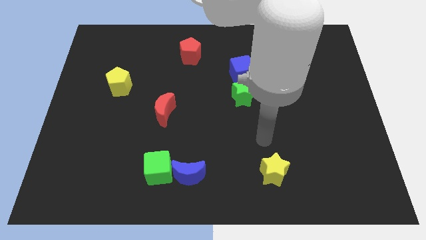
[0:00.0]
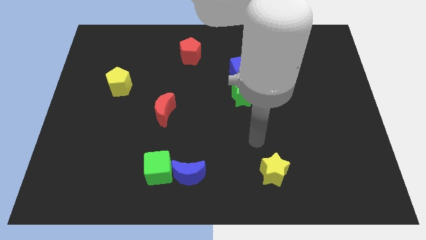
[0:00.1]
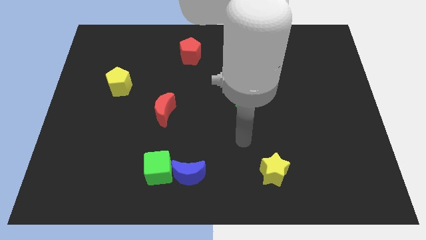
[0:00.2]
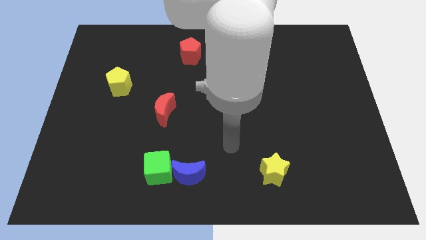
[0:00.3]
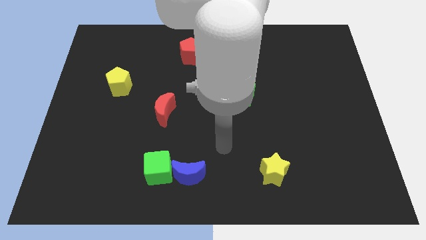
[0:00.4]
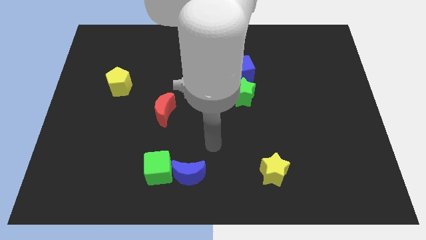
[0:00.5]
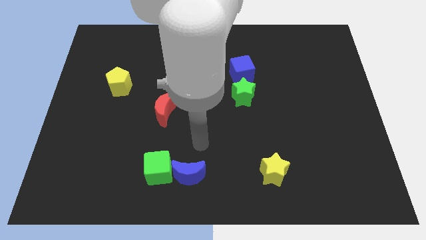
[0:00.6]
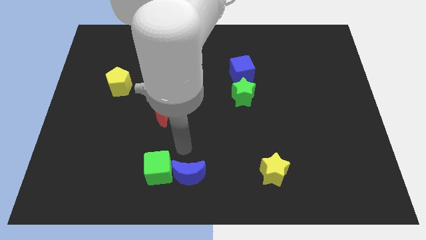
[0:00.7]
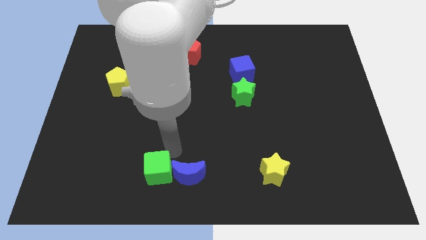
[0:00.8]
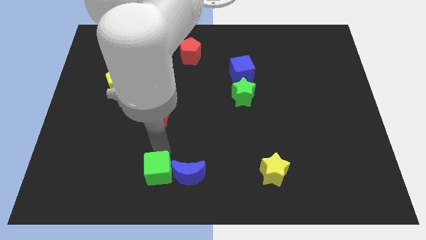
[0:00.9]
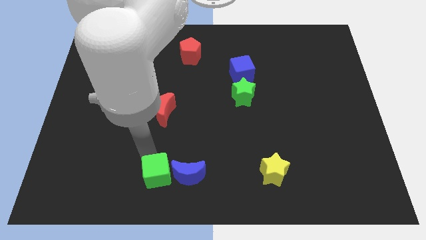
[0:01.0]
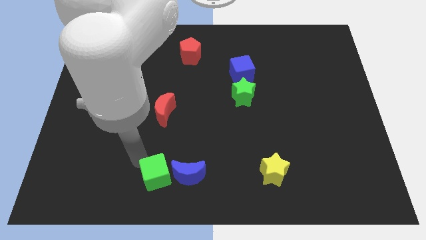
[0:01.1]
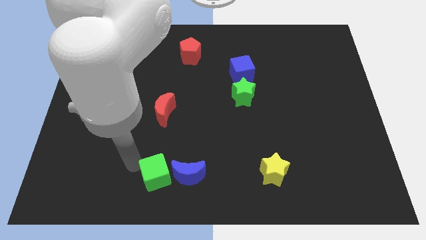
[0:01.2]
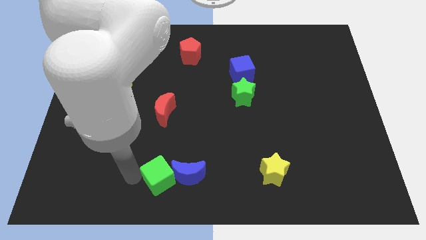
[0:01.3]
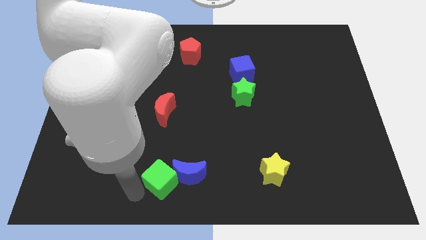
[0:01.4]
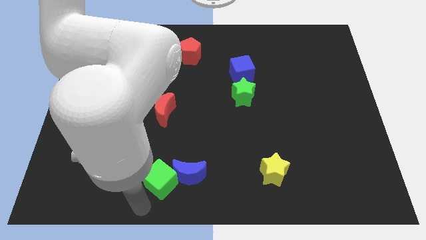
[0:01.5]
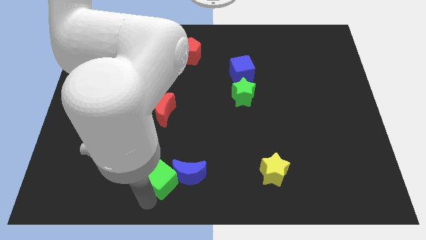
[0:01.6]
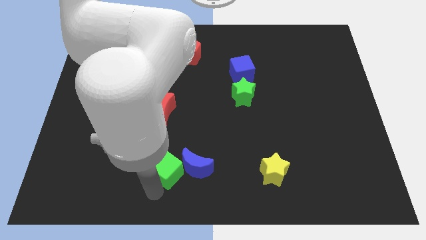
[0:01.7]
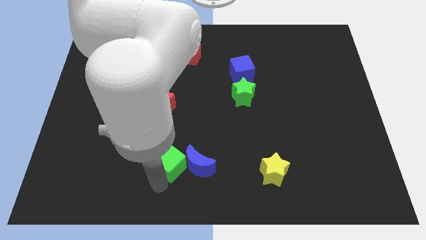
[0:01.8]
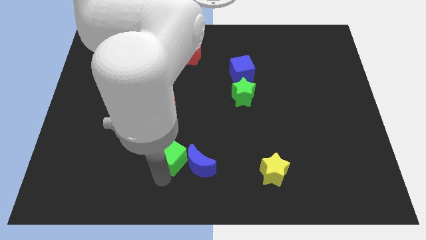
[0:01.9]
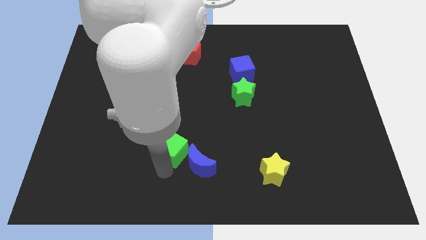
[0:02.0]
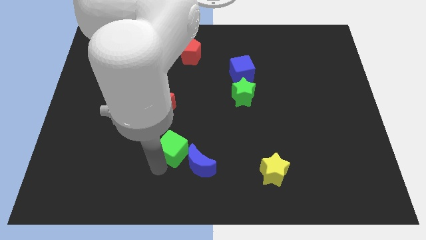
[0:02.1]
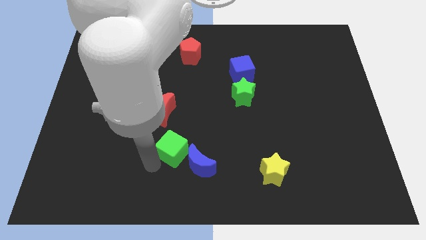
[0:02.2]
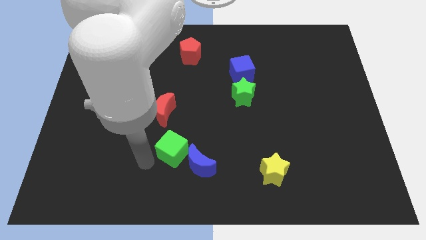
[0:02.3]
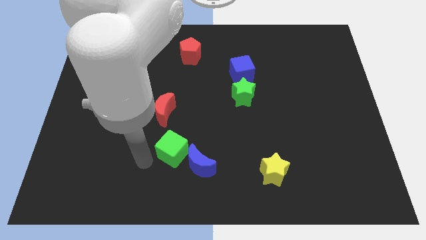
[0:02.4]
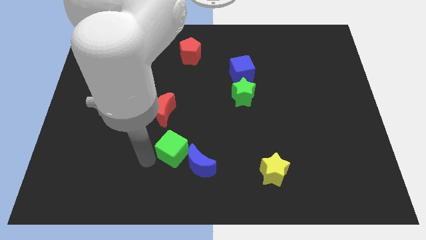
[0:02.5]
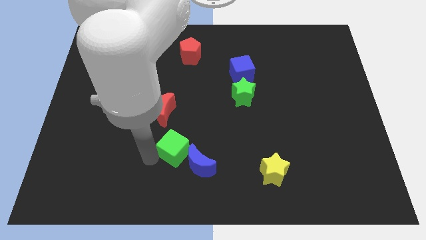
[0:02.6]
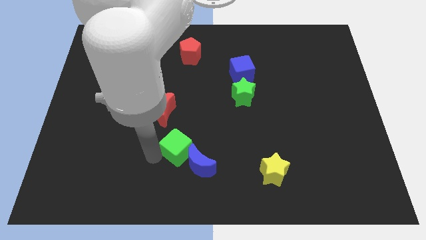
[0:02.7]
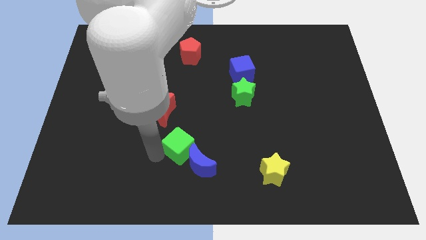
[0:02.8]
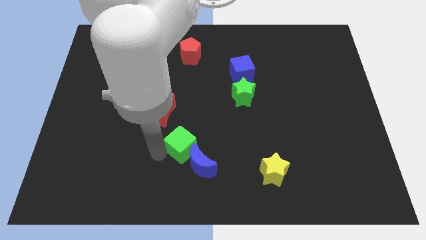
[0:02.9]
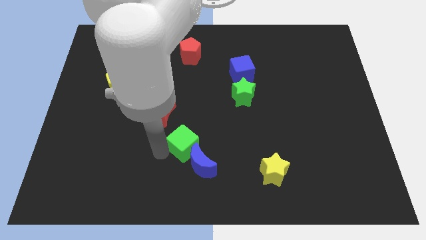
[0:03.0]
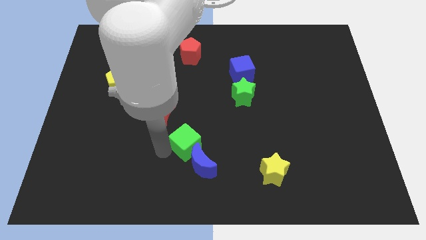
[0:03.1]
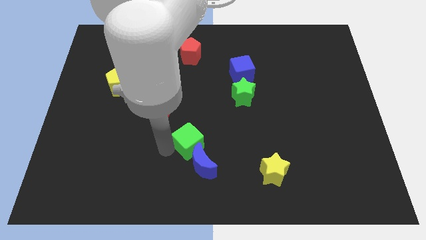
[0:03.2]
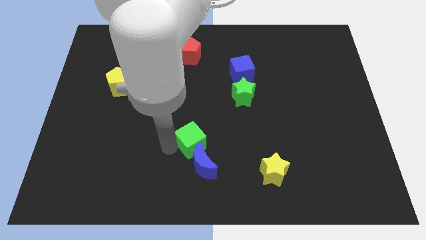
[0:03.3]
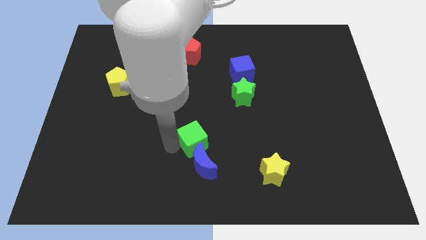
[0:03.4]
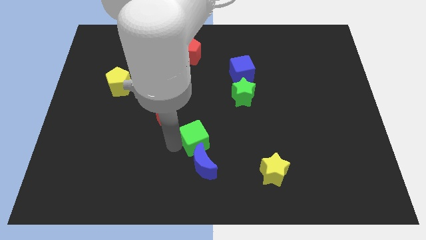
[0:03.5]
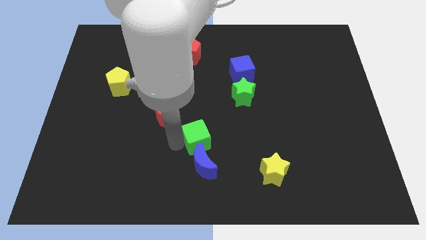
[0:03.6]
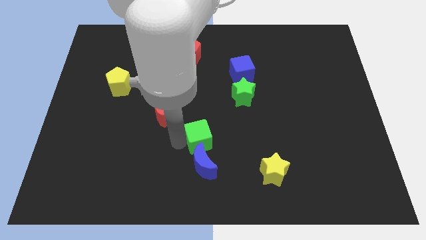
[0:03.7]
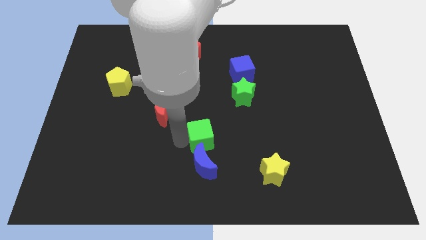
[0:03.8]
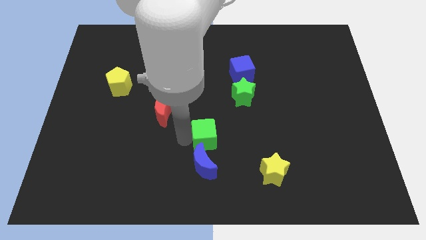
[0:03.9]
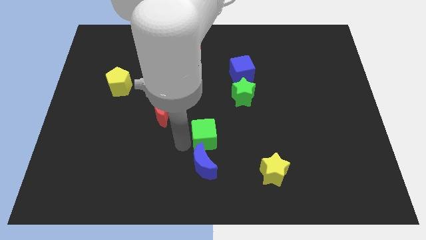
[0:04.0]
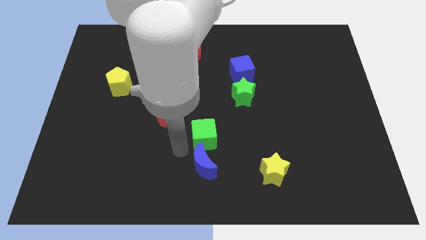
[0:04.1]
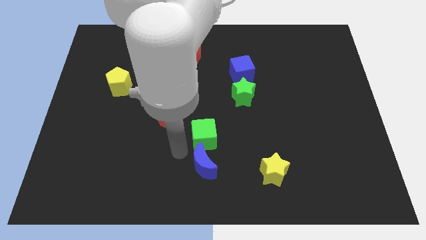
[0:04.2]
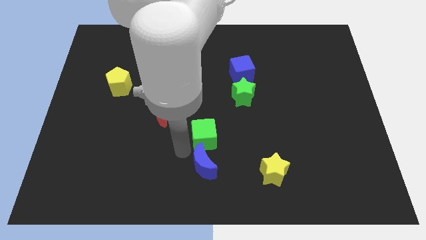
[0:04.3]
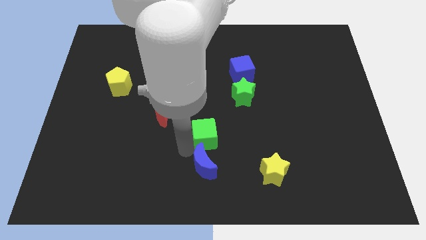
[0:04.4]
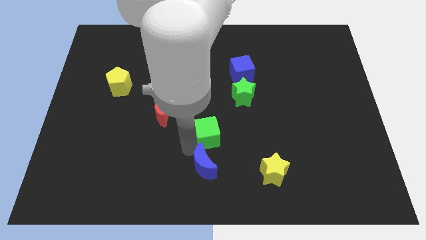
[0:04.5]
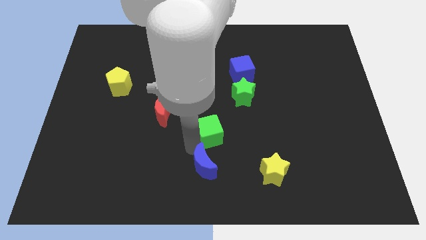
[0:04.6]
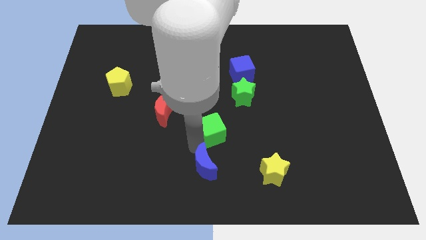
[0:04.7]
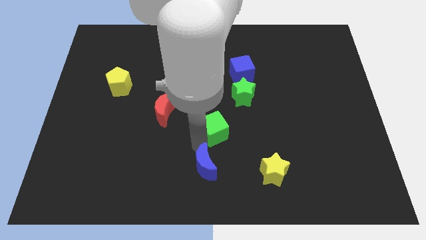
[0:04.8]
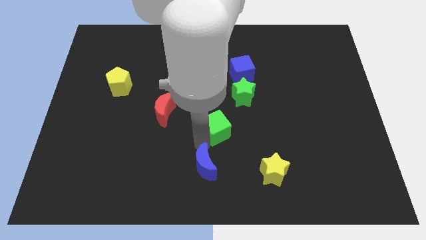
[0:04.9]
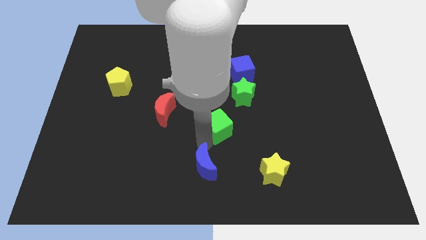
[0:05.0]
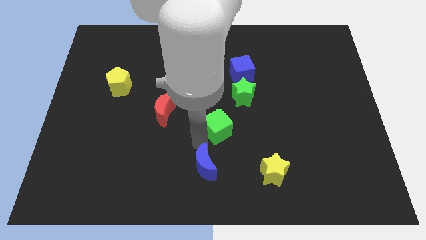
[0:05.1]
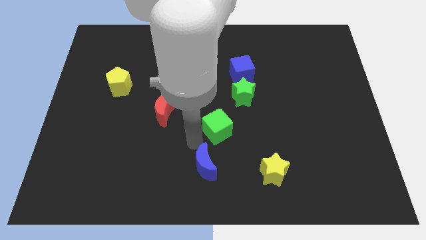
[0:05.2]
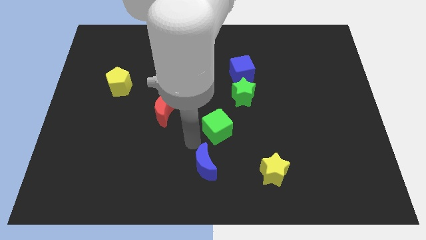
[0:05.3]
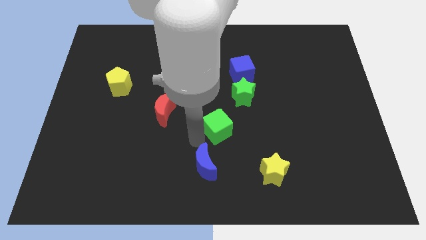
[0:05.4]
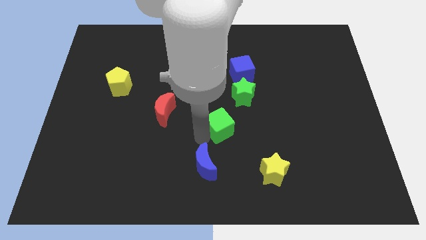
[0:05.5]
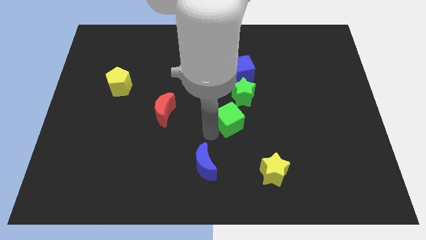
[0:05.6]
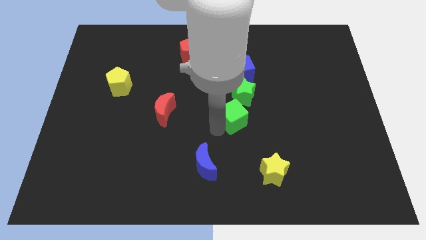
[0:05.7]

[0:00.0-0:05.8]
push the green cube upwards and right

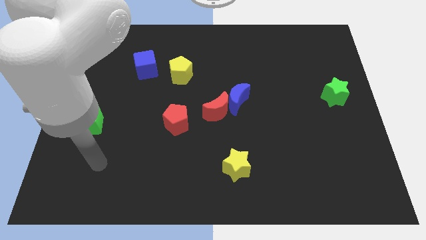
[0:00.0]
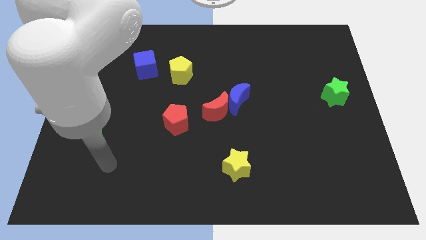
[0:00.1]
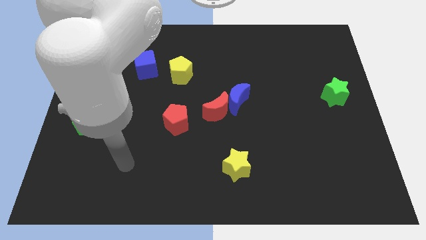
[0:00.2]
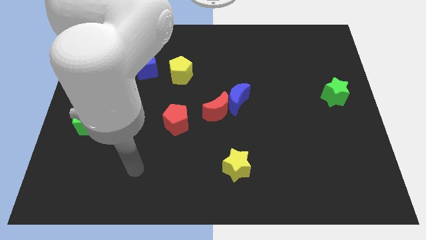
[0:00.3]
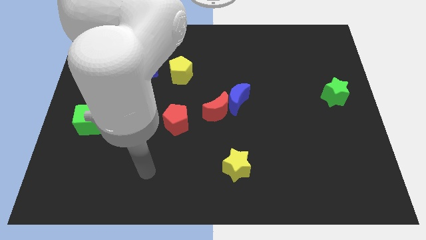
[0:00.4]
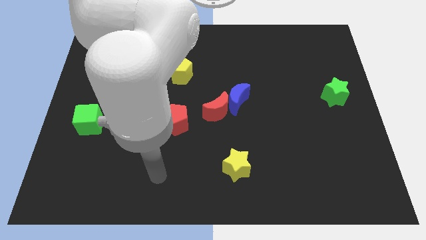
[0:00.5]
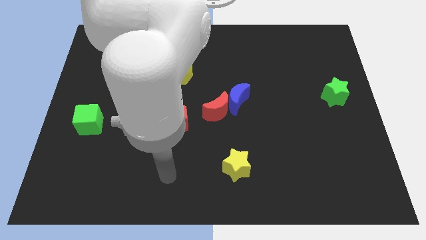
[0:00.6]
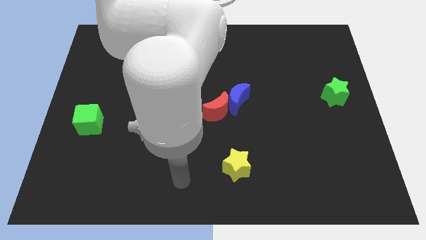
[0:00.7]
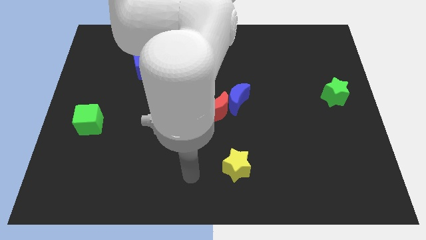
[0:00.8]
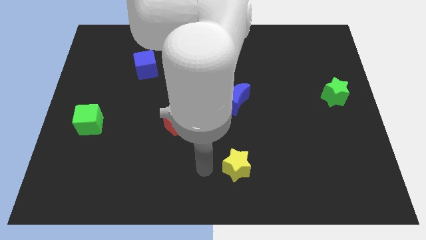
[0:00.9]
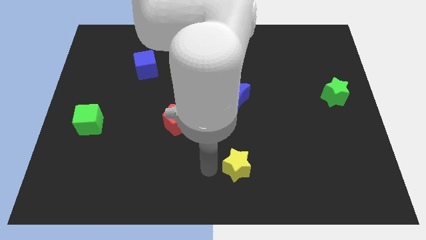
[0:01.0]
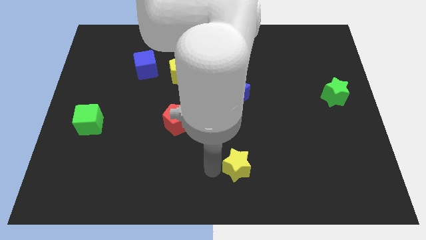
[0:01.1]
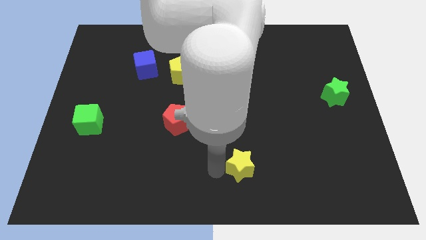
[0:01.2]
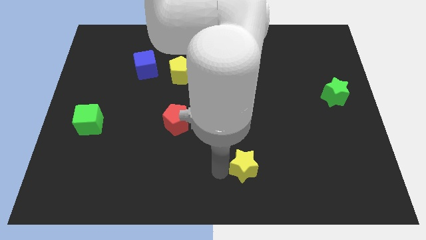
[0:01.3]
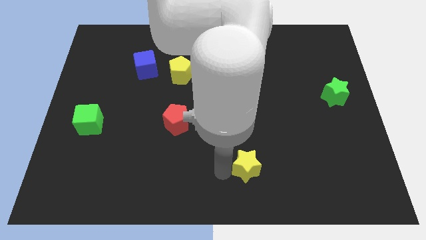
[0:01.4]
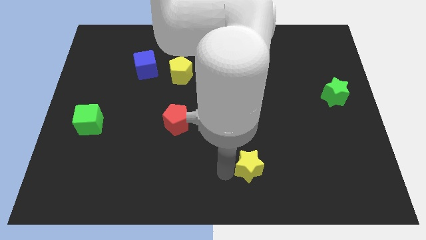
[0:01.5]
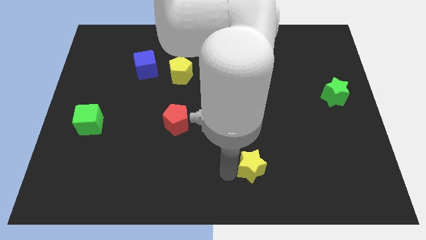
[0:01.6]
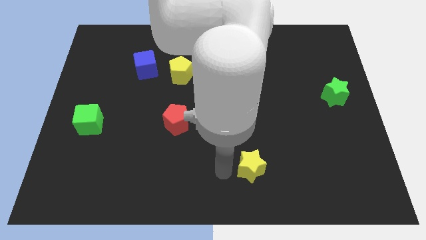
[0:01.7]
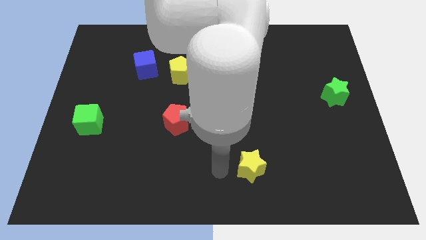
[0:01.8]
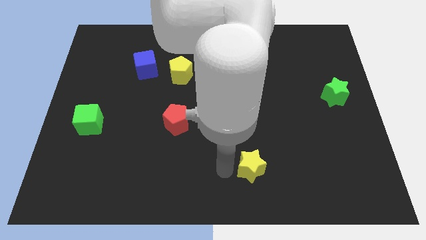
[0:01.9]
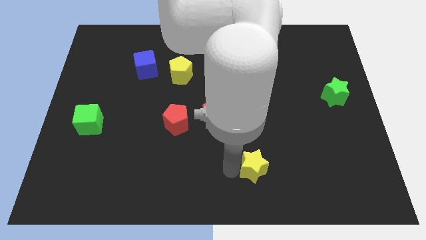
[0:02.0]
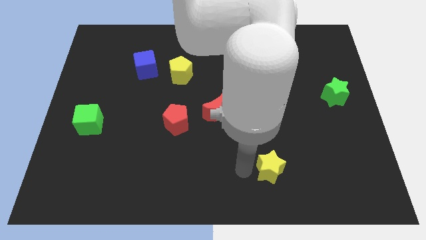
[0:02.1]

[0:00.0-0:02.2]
slightly move the yellow star to the right

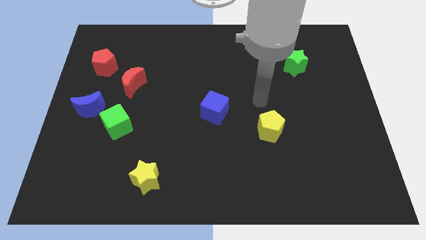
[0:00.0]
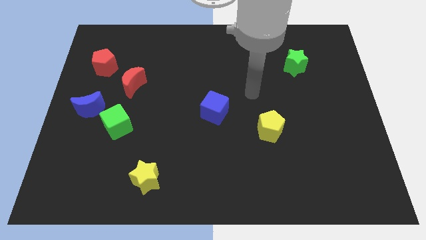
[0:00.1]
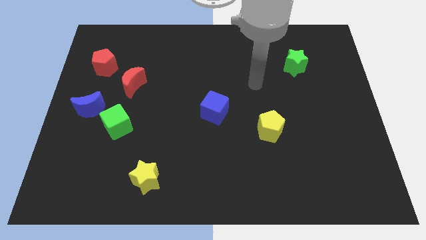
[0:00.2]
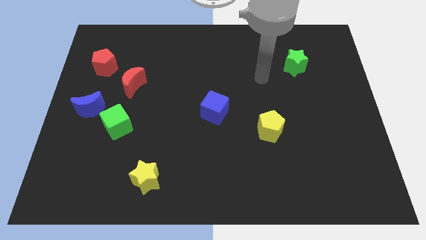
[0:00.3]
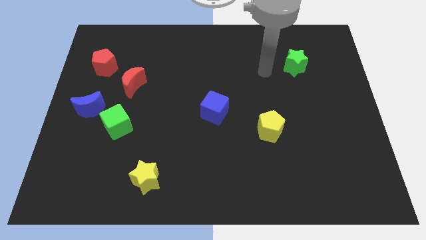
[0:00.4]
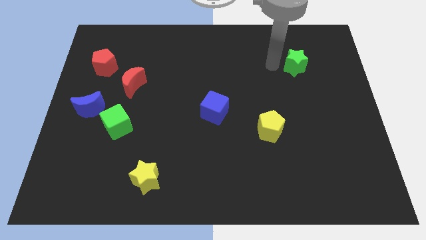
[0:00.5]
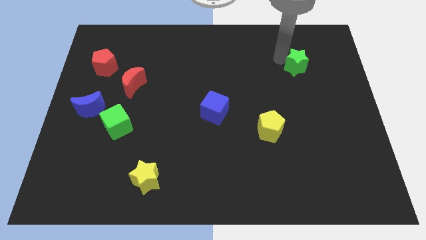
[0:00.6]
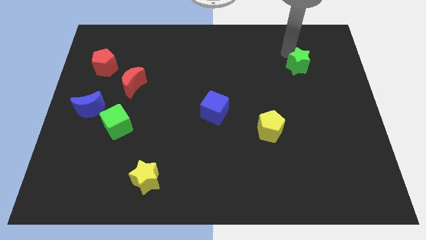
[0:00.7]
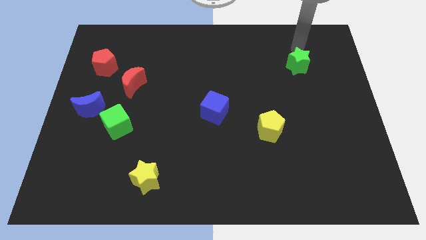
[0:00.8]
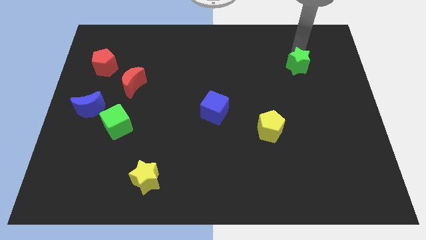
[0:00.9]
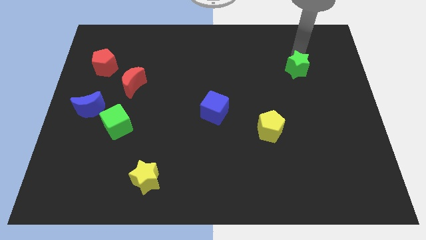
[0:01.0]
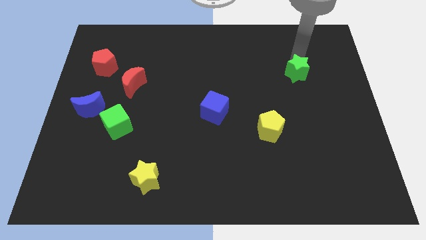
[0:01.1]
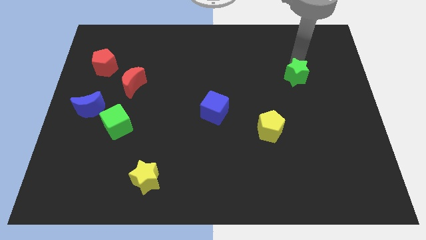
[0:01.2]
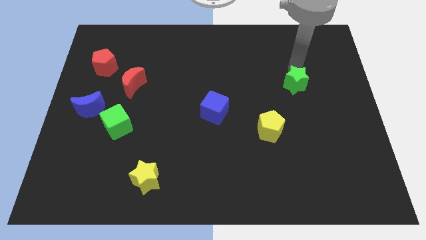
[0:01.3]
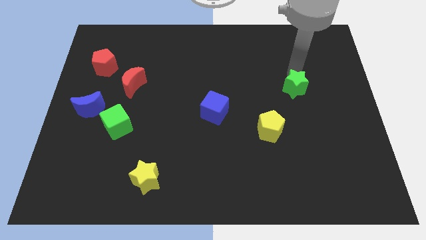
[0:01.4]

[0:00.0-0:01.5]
move the green star a bit down
